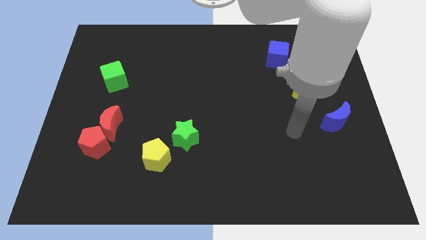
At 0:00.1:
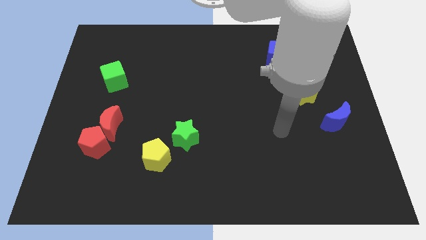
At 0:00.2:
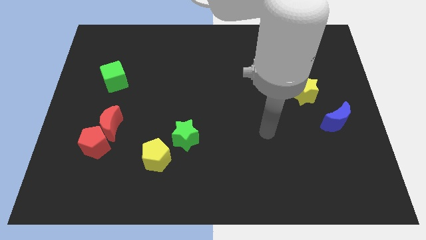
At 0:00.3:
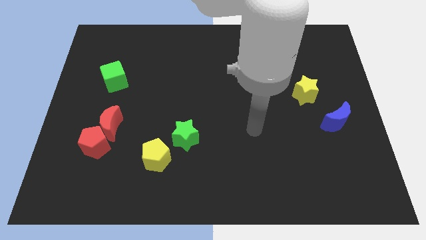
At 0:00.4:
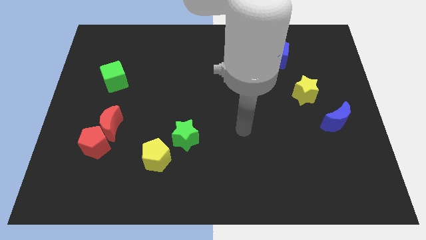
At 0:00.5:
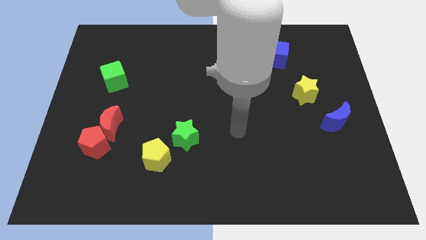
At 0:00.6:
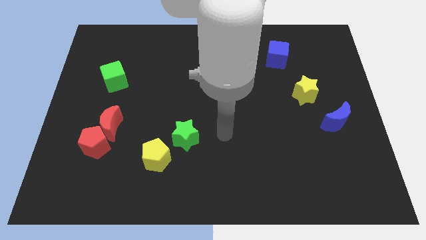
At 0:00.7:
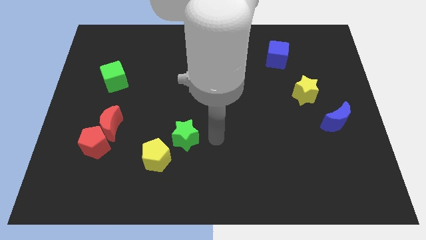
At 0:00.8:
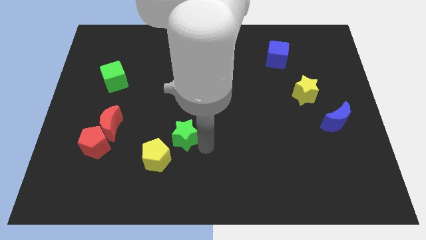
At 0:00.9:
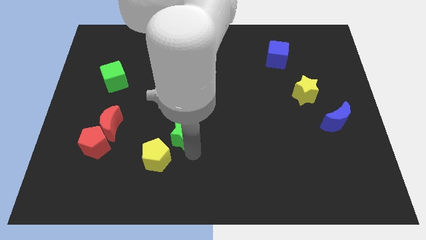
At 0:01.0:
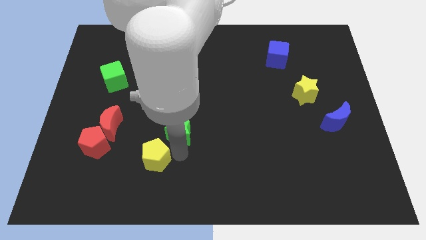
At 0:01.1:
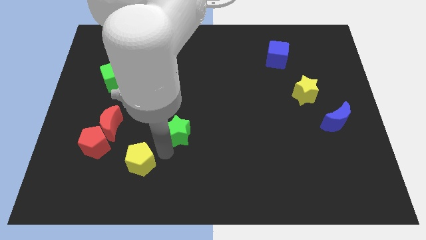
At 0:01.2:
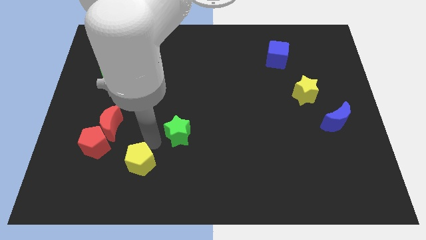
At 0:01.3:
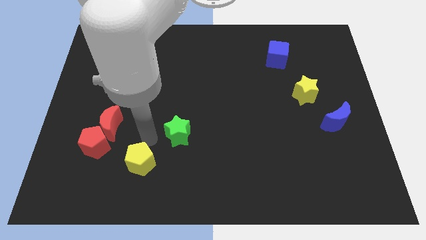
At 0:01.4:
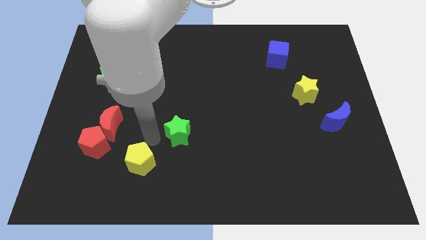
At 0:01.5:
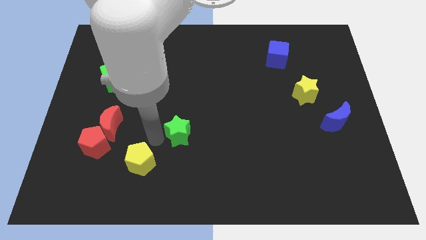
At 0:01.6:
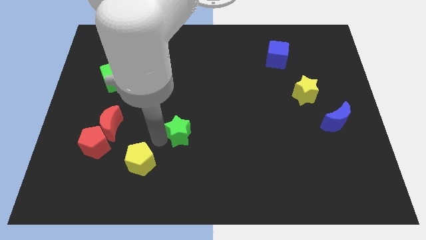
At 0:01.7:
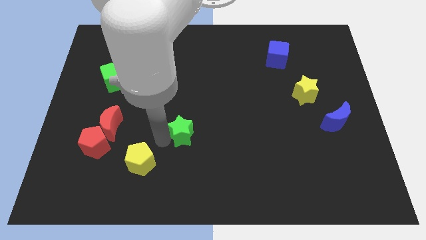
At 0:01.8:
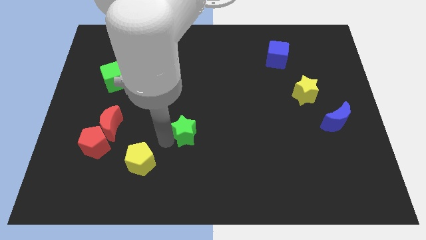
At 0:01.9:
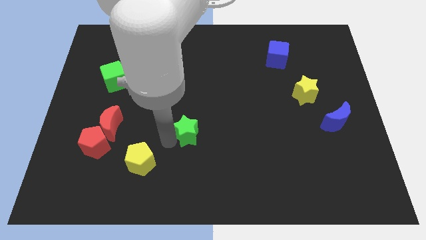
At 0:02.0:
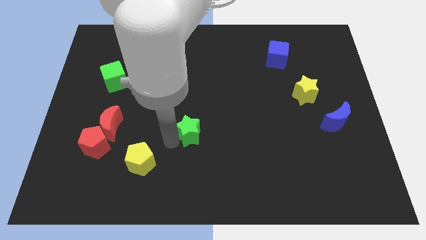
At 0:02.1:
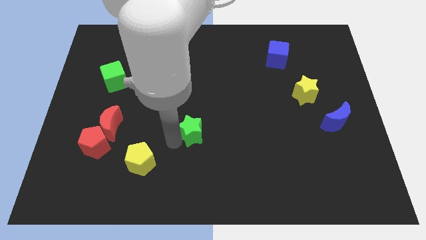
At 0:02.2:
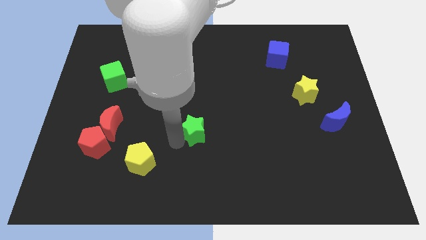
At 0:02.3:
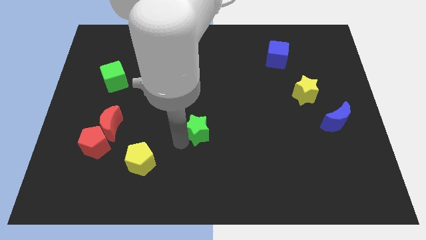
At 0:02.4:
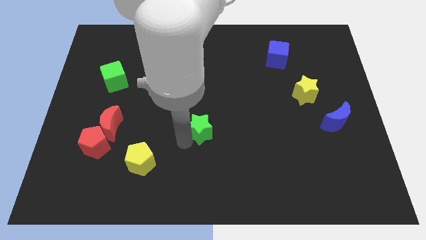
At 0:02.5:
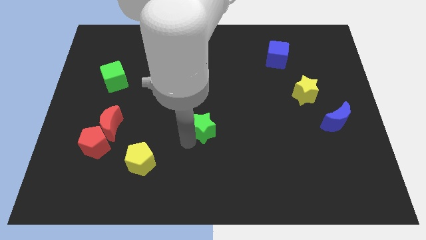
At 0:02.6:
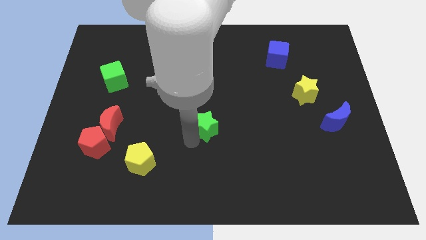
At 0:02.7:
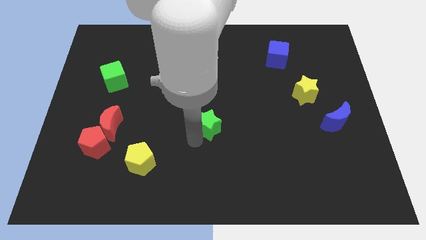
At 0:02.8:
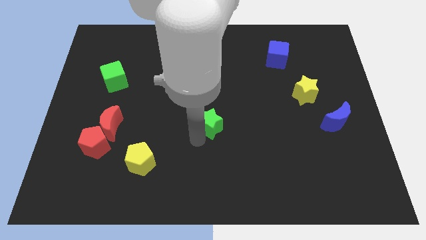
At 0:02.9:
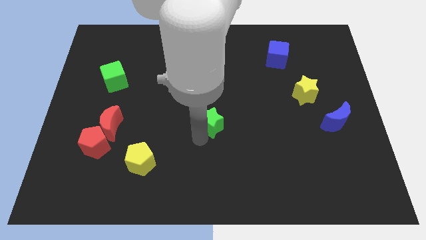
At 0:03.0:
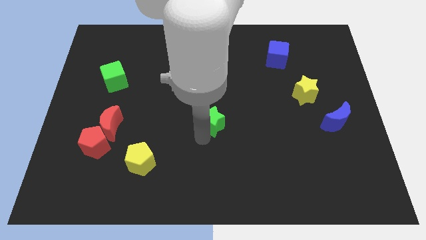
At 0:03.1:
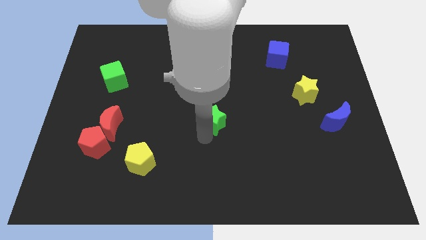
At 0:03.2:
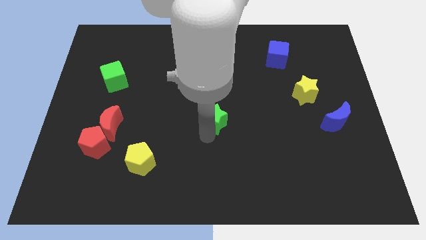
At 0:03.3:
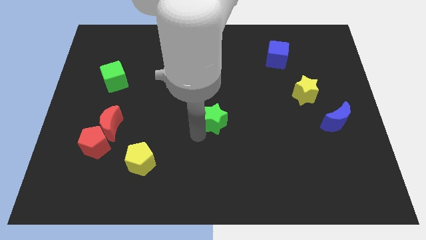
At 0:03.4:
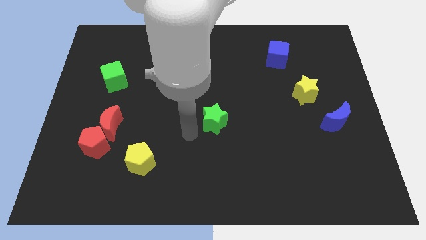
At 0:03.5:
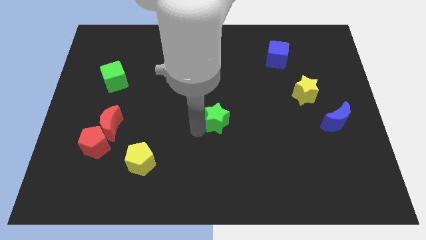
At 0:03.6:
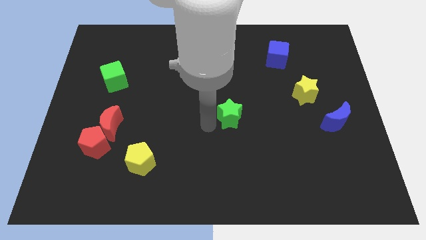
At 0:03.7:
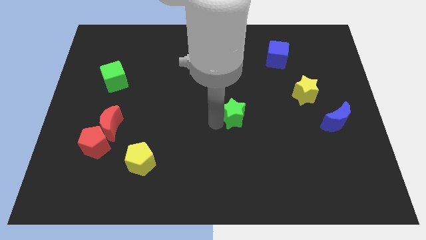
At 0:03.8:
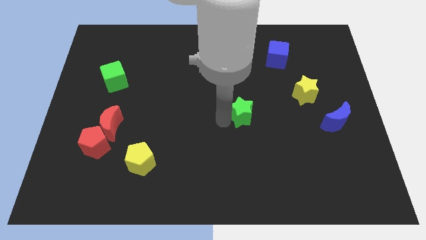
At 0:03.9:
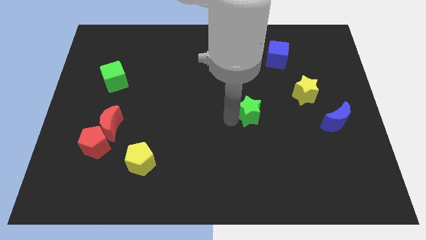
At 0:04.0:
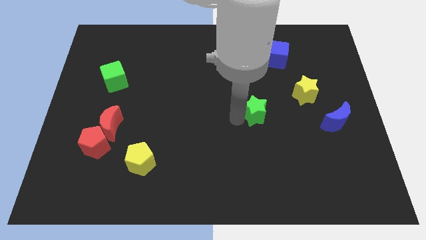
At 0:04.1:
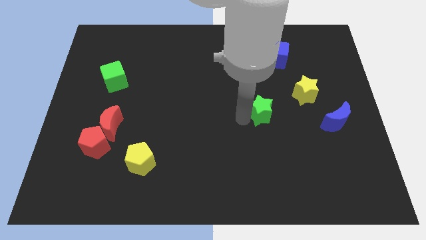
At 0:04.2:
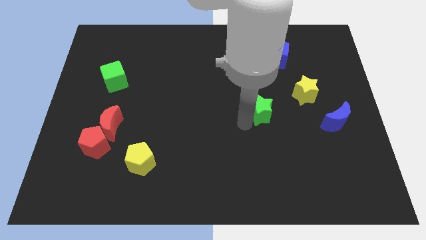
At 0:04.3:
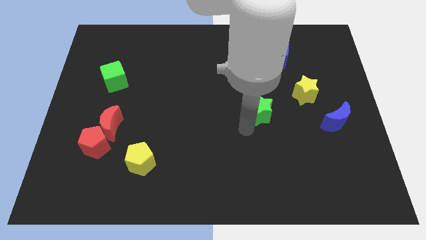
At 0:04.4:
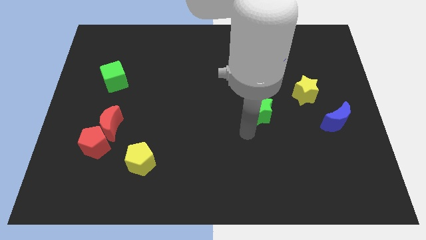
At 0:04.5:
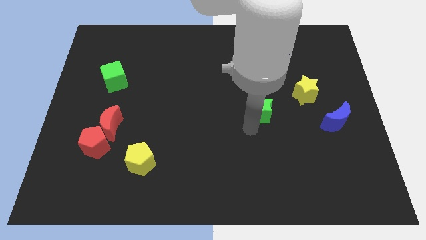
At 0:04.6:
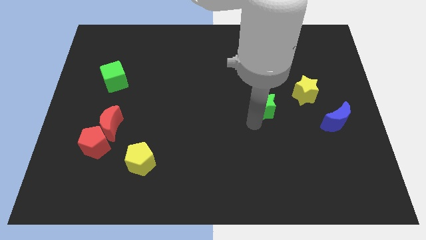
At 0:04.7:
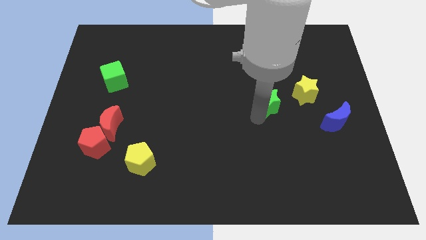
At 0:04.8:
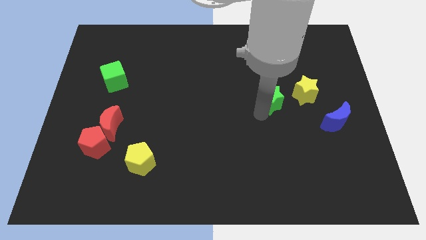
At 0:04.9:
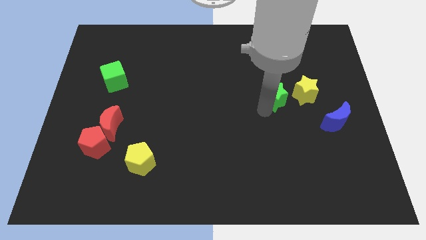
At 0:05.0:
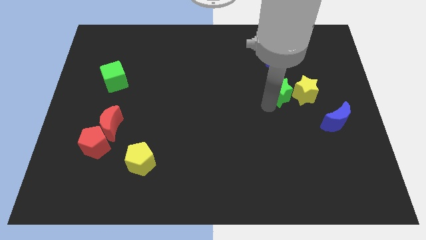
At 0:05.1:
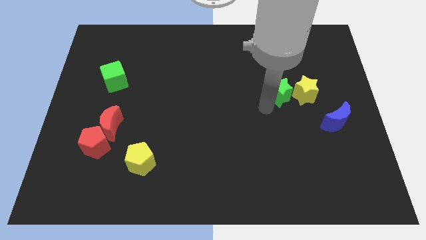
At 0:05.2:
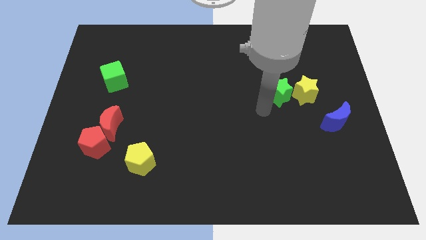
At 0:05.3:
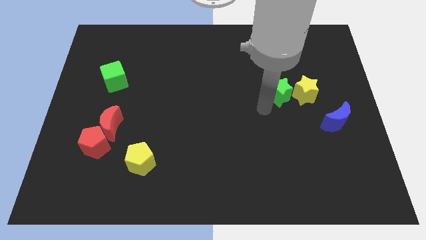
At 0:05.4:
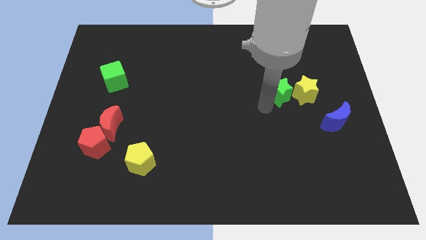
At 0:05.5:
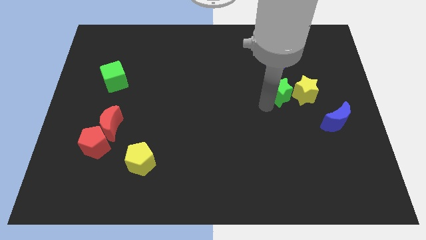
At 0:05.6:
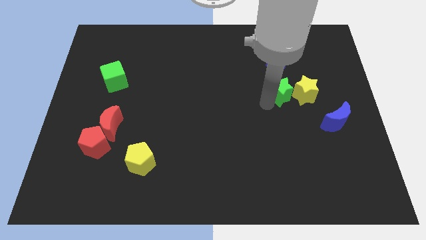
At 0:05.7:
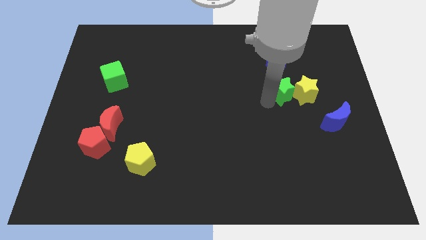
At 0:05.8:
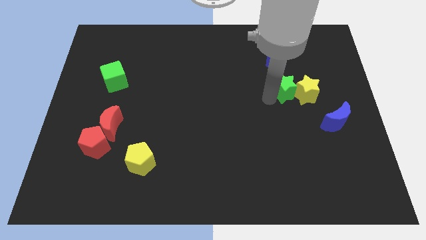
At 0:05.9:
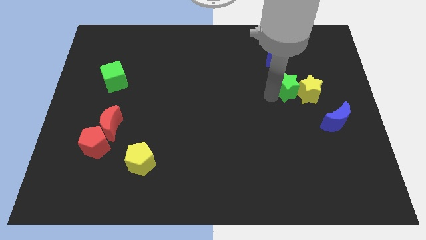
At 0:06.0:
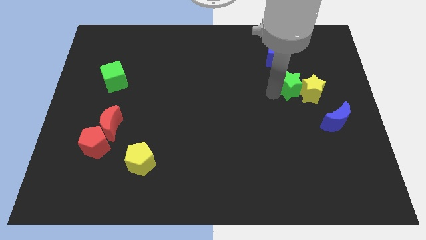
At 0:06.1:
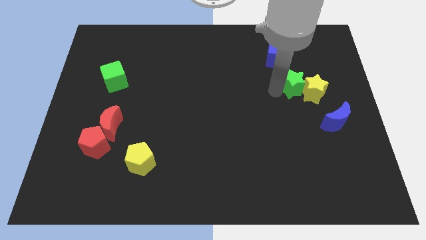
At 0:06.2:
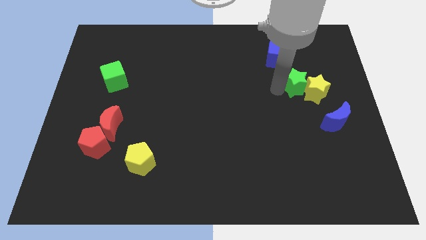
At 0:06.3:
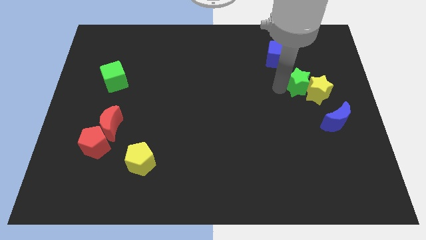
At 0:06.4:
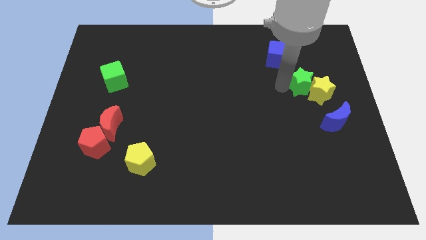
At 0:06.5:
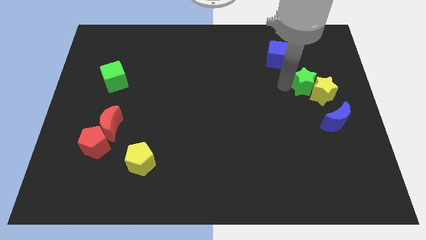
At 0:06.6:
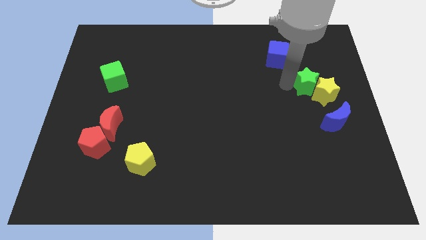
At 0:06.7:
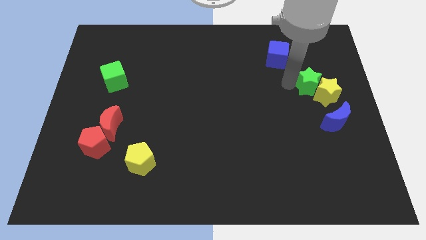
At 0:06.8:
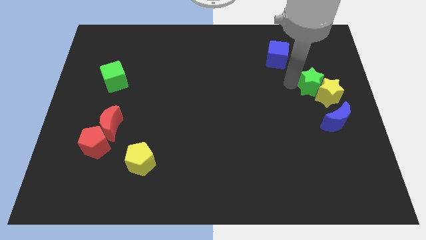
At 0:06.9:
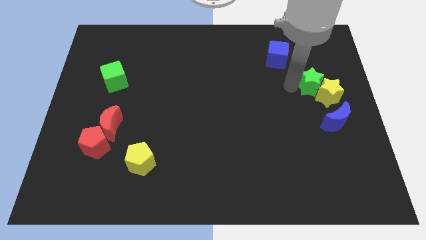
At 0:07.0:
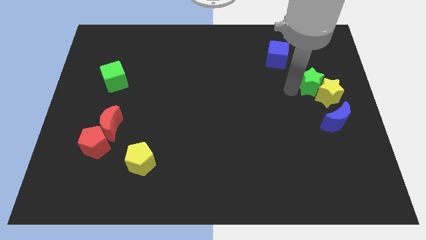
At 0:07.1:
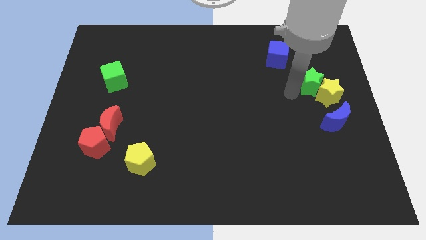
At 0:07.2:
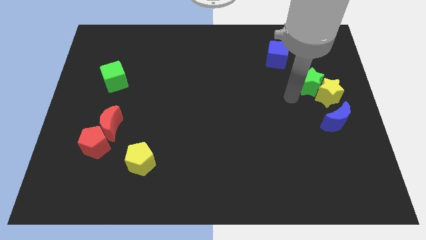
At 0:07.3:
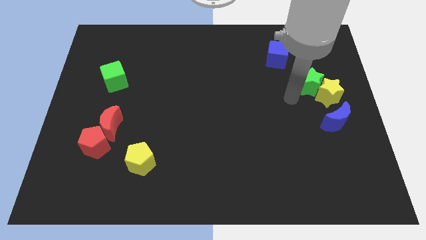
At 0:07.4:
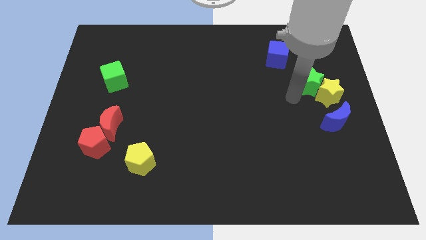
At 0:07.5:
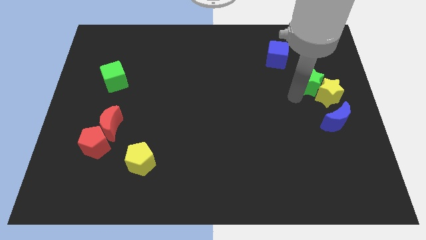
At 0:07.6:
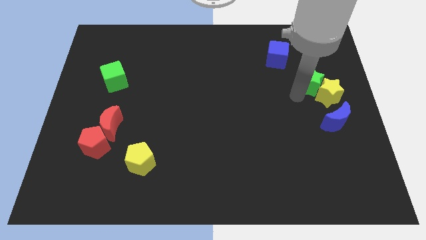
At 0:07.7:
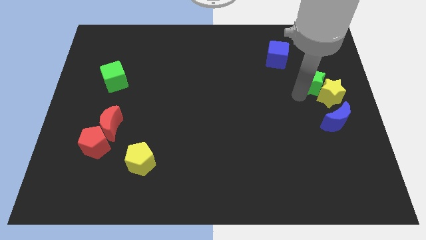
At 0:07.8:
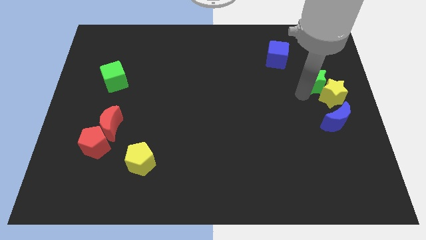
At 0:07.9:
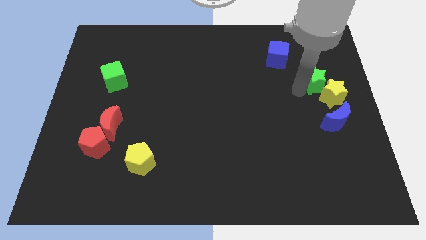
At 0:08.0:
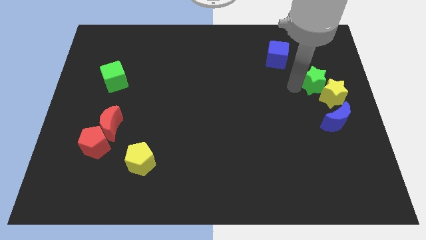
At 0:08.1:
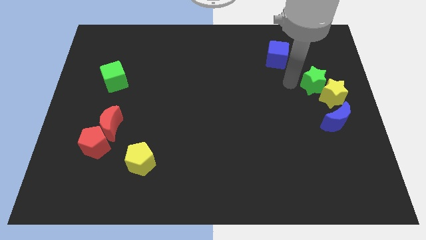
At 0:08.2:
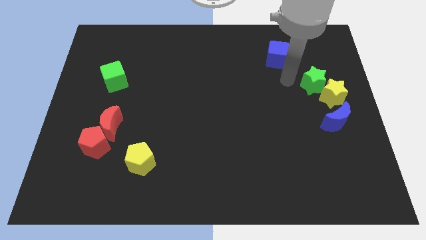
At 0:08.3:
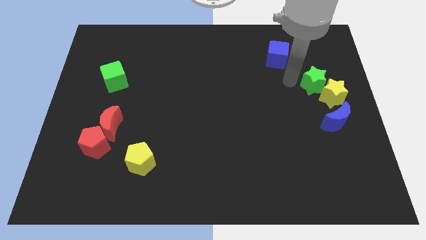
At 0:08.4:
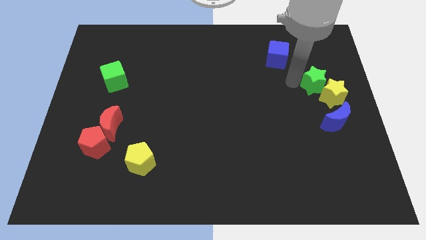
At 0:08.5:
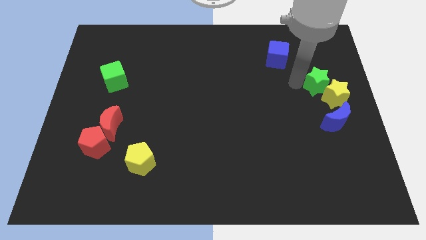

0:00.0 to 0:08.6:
push the green star to the right side
